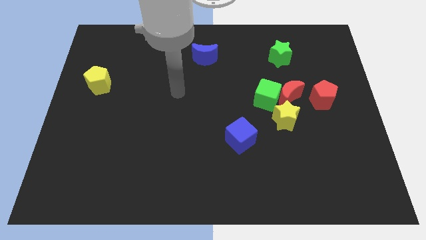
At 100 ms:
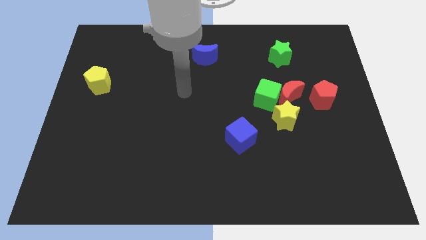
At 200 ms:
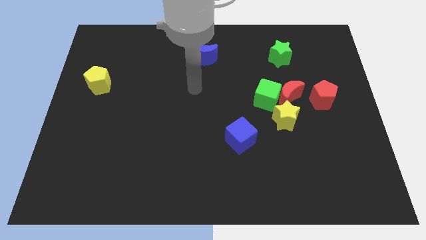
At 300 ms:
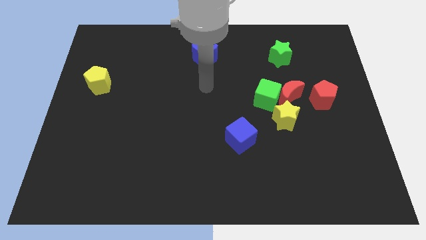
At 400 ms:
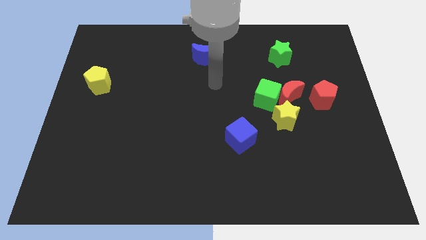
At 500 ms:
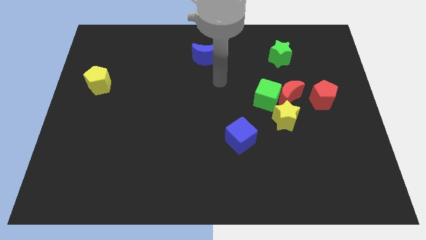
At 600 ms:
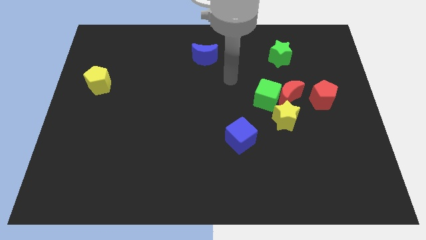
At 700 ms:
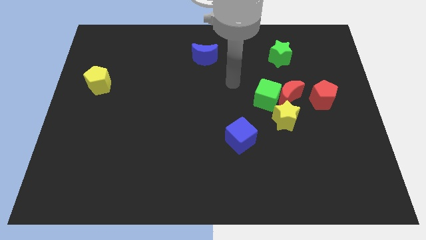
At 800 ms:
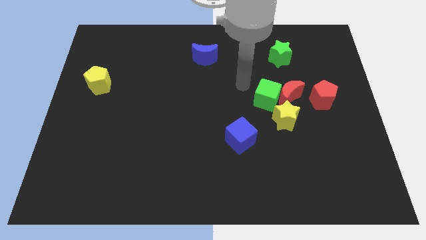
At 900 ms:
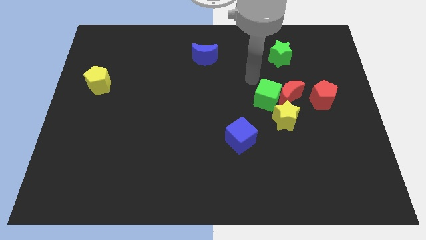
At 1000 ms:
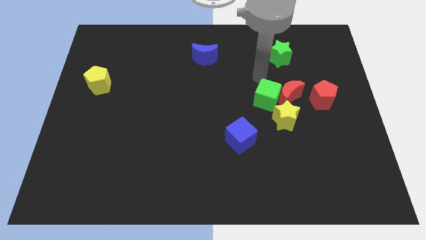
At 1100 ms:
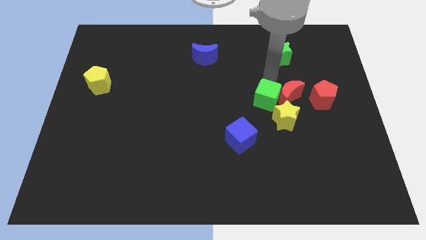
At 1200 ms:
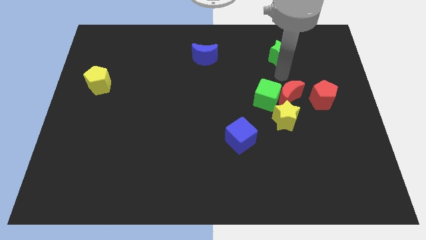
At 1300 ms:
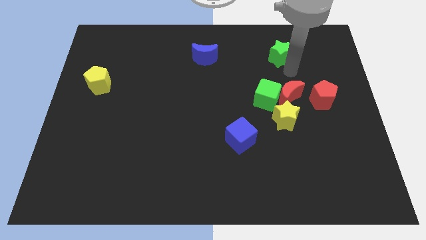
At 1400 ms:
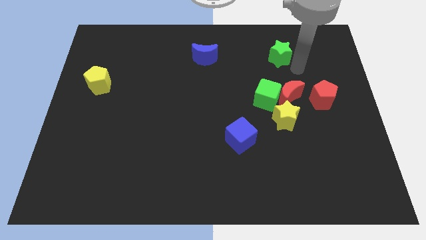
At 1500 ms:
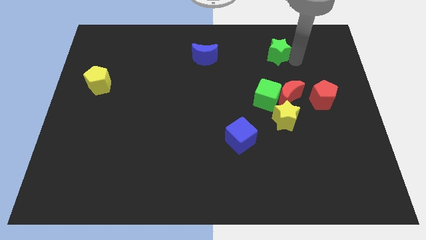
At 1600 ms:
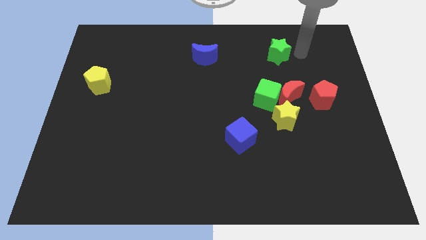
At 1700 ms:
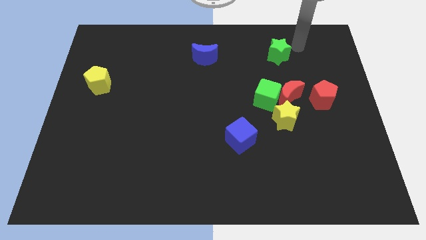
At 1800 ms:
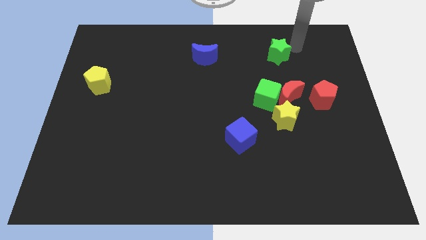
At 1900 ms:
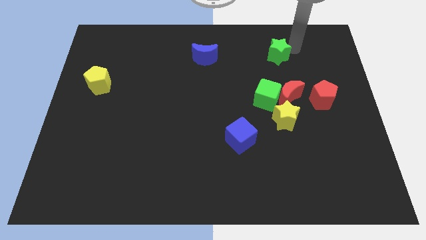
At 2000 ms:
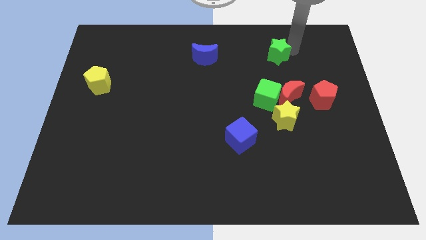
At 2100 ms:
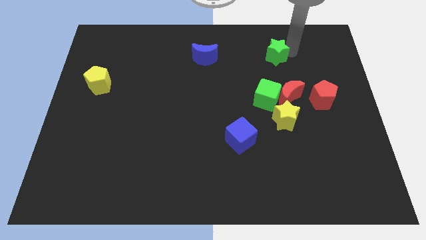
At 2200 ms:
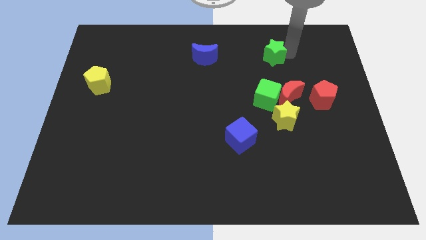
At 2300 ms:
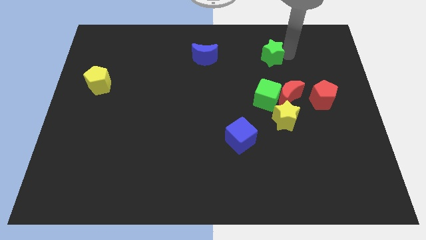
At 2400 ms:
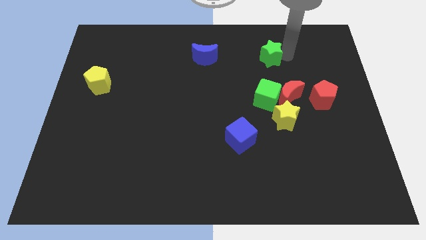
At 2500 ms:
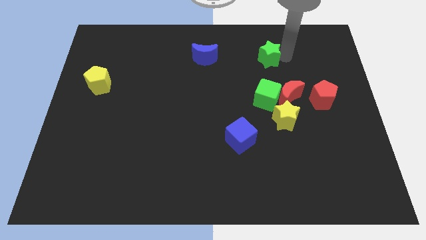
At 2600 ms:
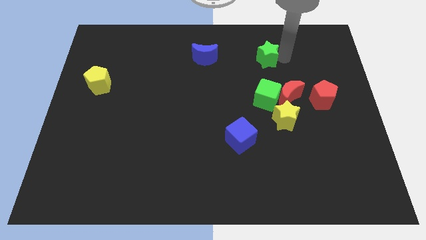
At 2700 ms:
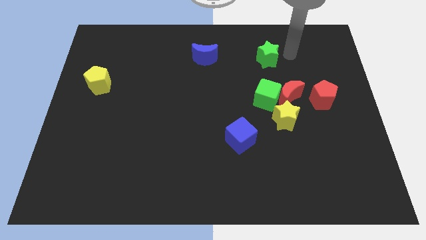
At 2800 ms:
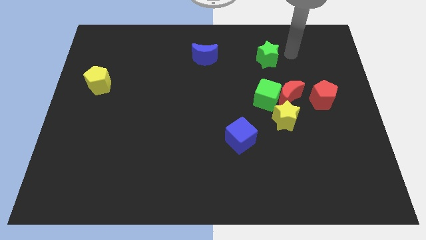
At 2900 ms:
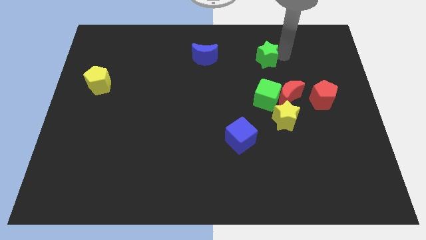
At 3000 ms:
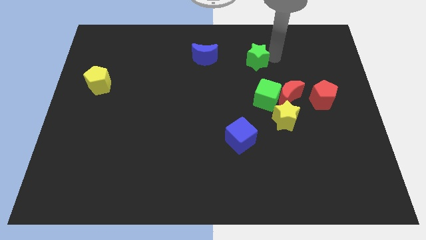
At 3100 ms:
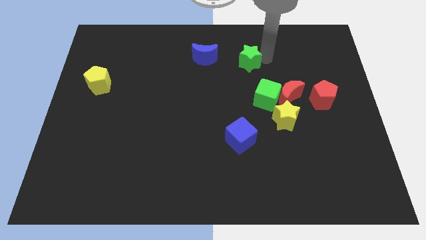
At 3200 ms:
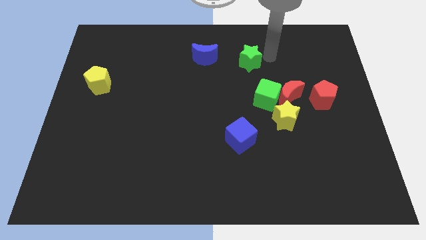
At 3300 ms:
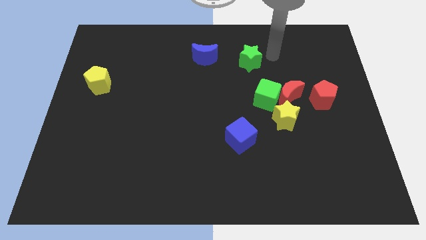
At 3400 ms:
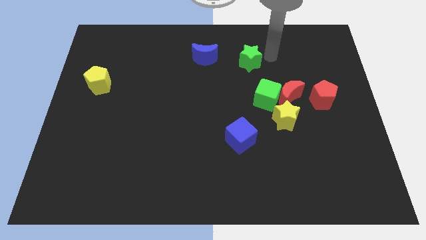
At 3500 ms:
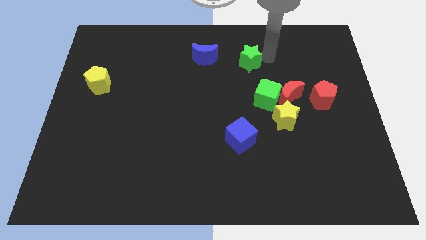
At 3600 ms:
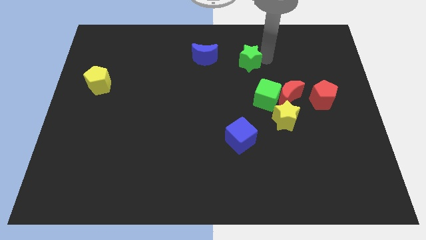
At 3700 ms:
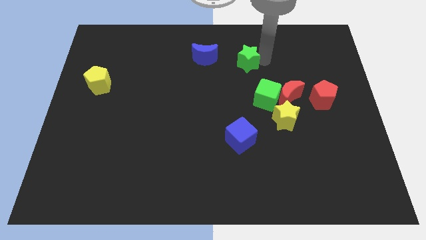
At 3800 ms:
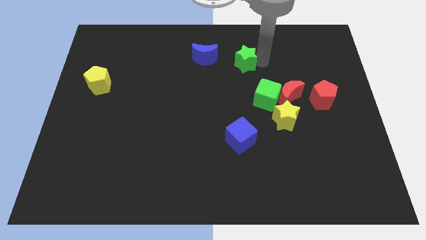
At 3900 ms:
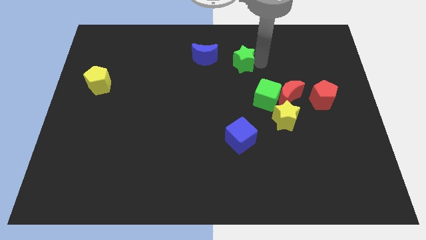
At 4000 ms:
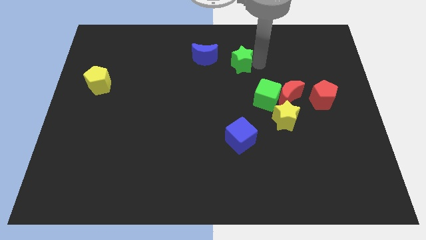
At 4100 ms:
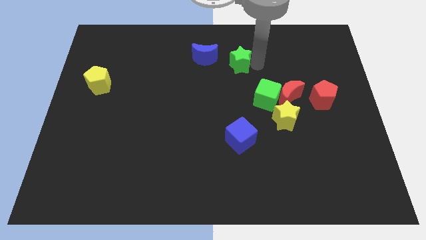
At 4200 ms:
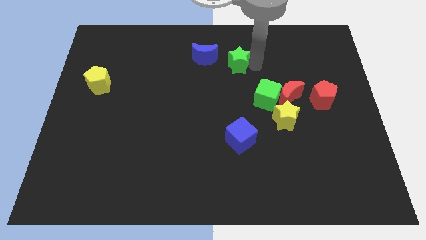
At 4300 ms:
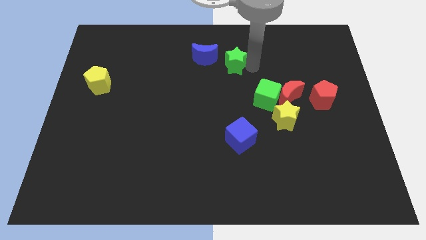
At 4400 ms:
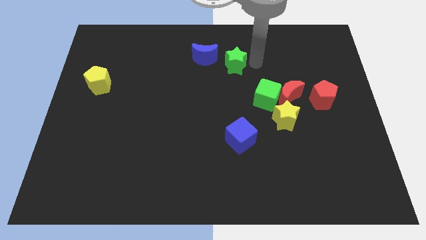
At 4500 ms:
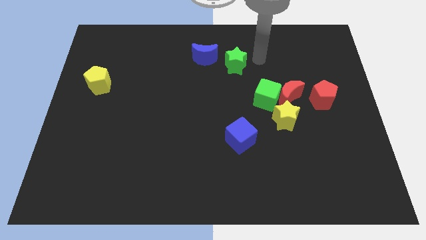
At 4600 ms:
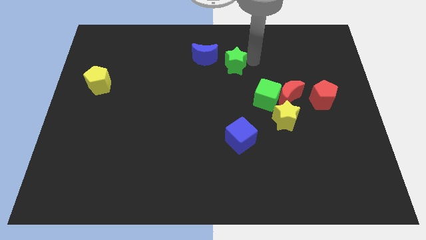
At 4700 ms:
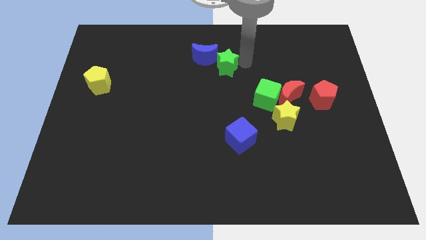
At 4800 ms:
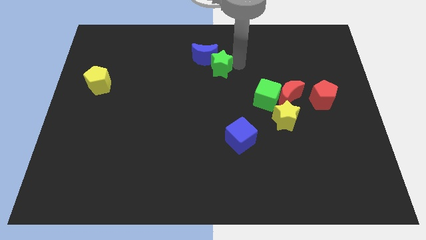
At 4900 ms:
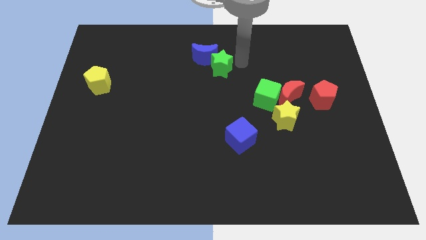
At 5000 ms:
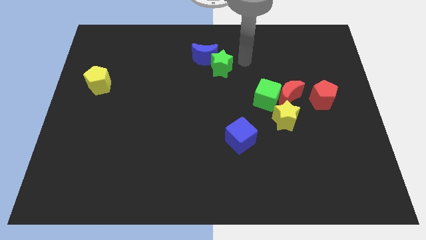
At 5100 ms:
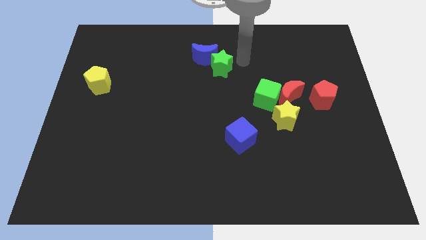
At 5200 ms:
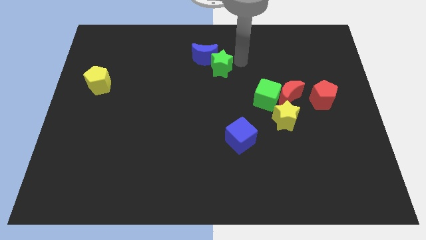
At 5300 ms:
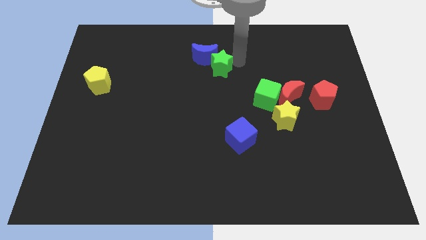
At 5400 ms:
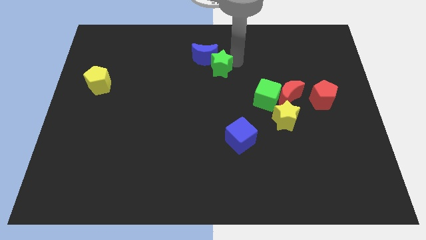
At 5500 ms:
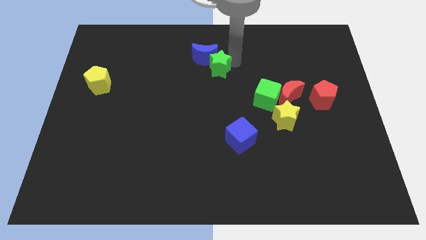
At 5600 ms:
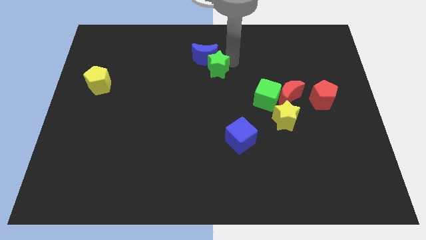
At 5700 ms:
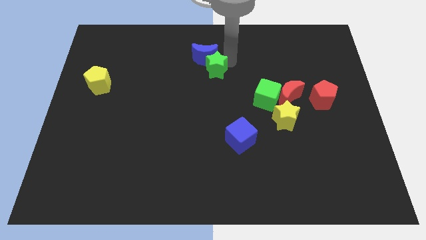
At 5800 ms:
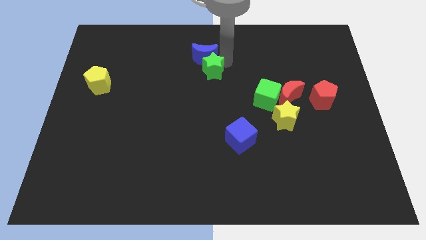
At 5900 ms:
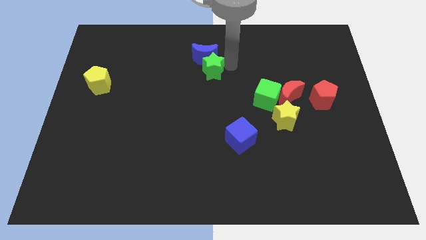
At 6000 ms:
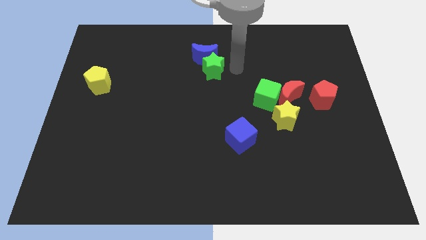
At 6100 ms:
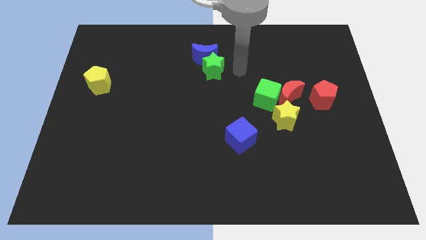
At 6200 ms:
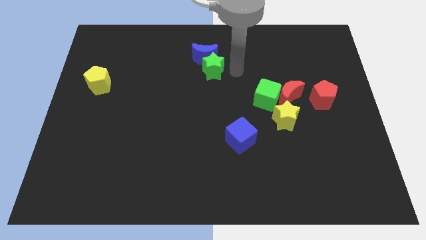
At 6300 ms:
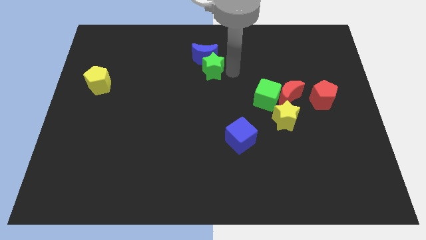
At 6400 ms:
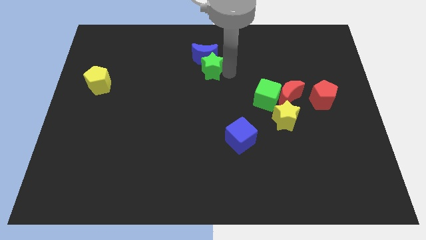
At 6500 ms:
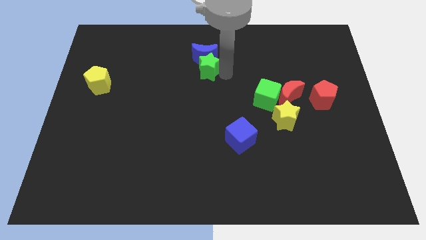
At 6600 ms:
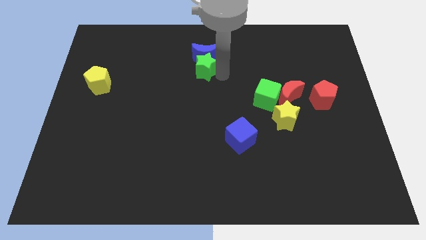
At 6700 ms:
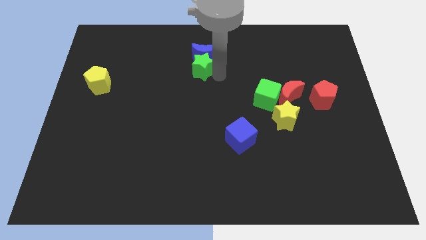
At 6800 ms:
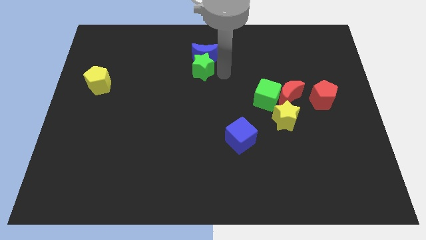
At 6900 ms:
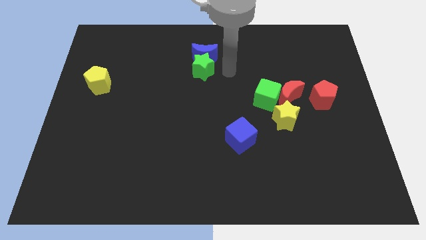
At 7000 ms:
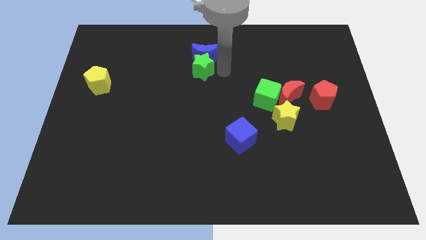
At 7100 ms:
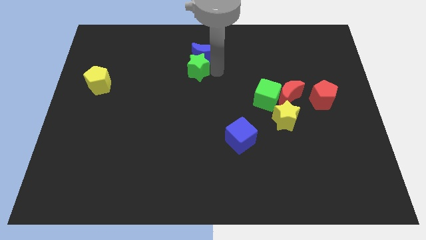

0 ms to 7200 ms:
slide the green star to the left

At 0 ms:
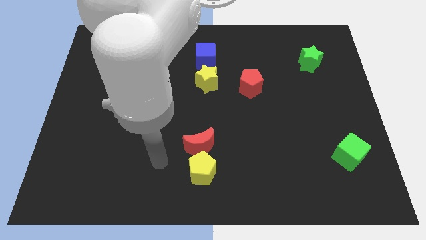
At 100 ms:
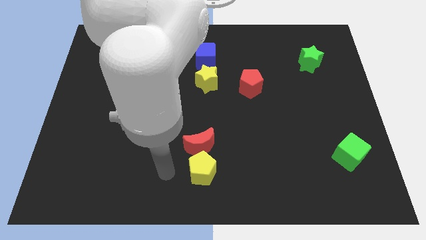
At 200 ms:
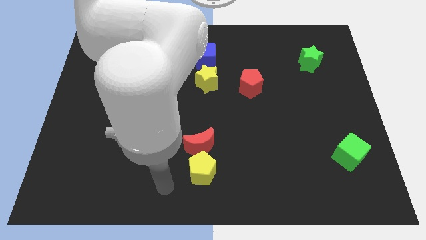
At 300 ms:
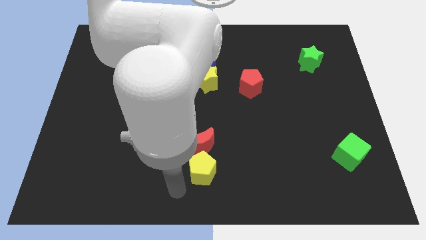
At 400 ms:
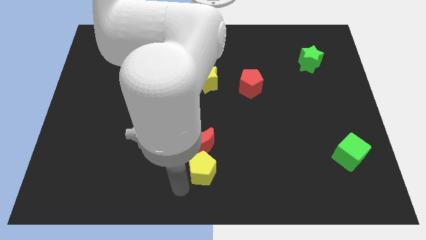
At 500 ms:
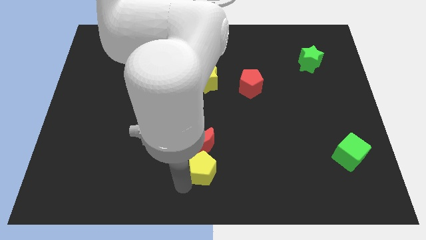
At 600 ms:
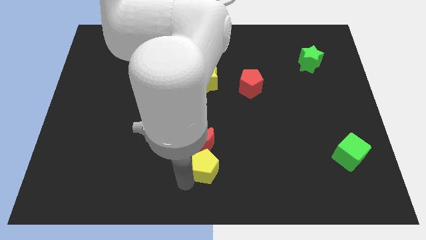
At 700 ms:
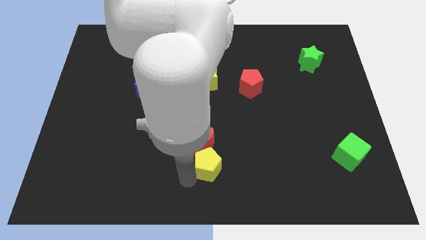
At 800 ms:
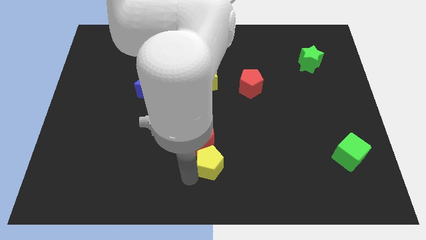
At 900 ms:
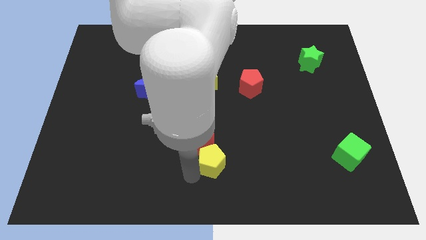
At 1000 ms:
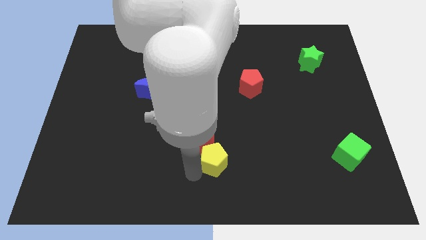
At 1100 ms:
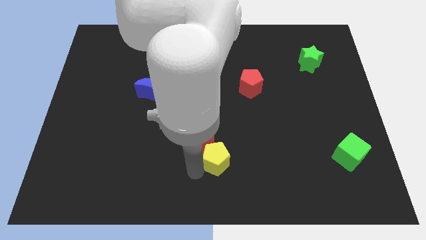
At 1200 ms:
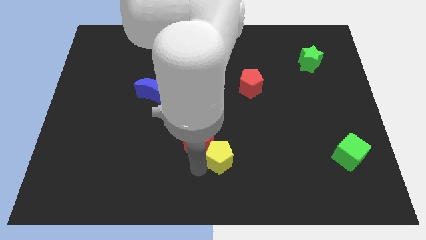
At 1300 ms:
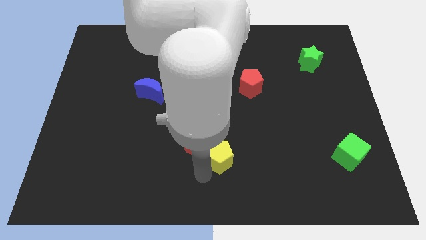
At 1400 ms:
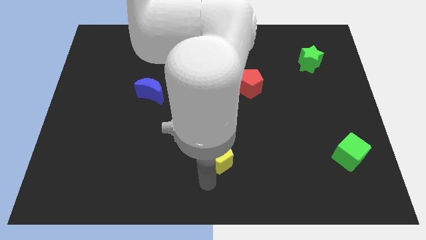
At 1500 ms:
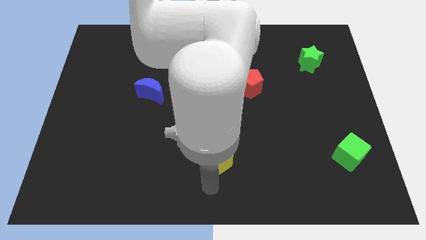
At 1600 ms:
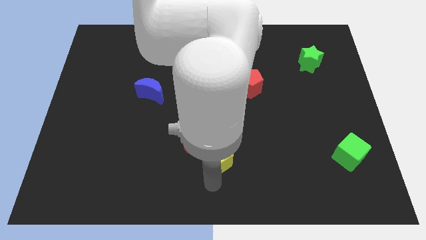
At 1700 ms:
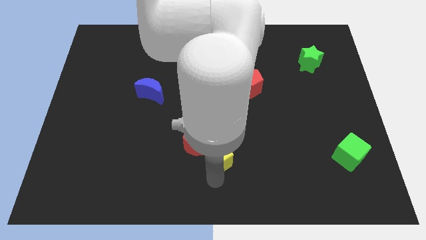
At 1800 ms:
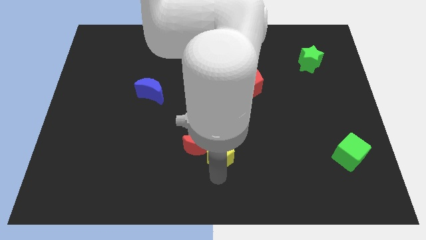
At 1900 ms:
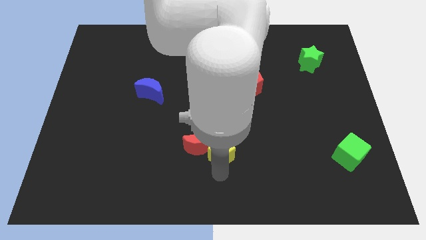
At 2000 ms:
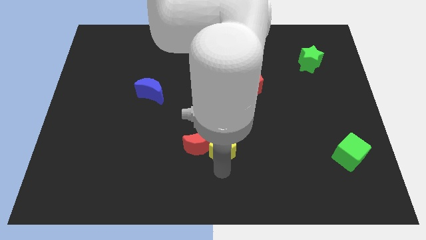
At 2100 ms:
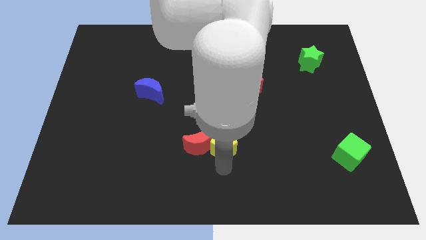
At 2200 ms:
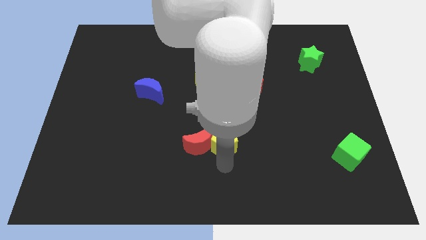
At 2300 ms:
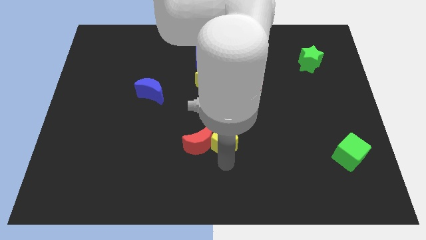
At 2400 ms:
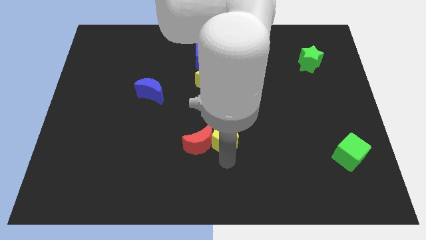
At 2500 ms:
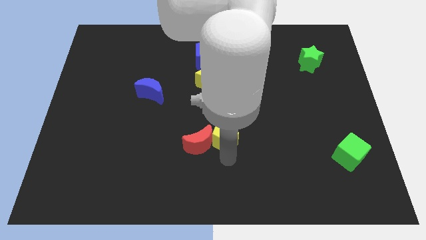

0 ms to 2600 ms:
move the yellow pentagon upwards somewhat
